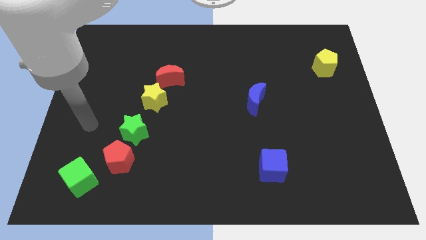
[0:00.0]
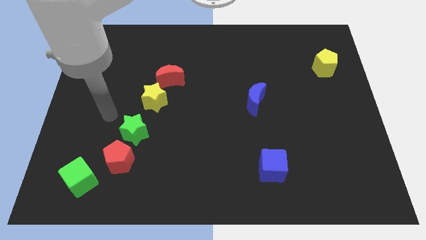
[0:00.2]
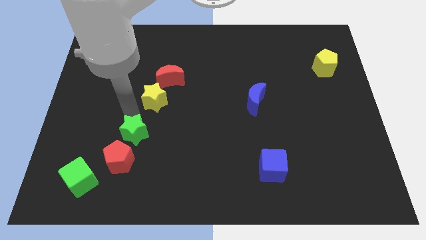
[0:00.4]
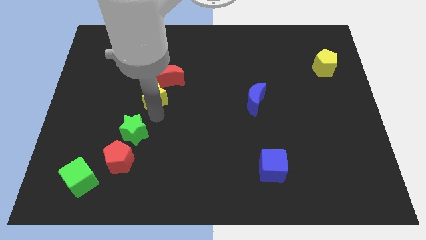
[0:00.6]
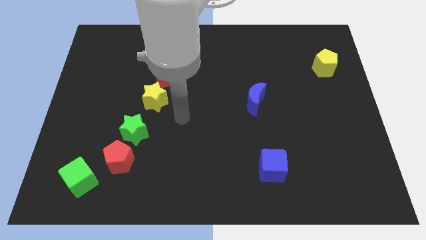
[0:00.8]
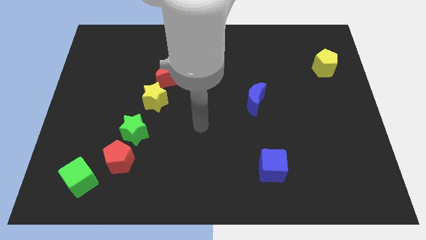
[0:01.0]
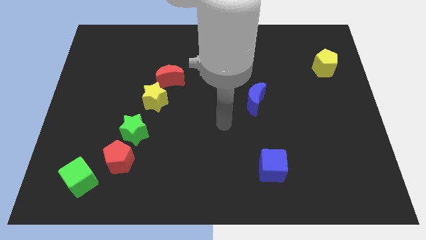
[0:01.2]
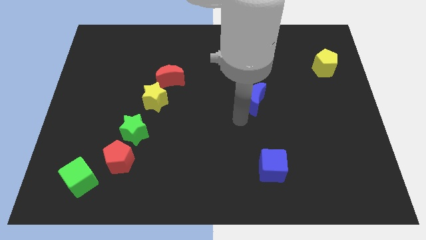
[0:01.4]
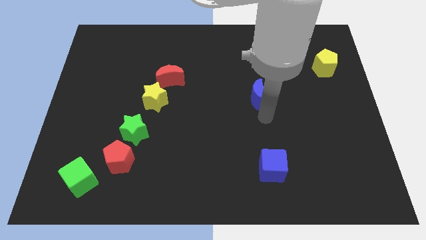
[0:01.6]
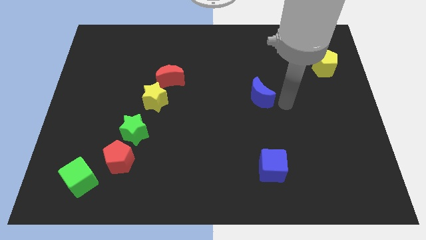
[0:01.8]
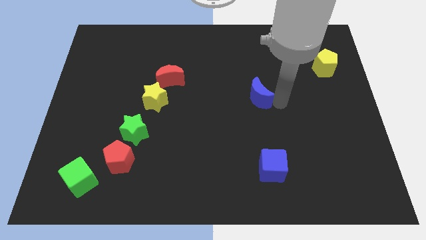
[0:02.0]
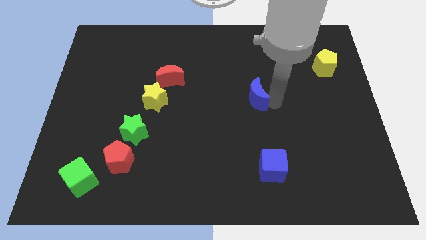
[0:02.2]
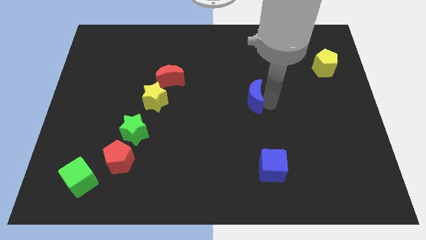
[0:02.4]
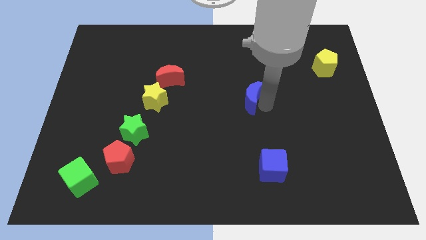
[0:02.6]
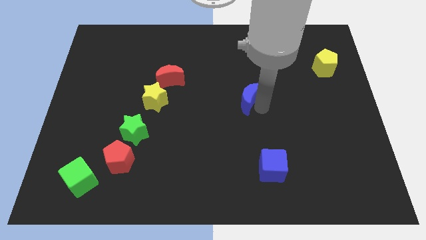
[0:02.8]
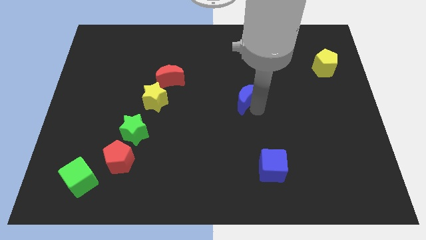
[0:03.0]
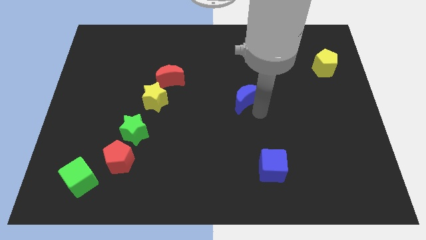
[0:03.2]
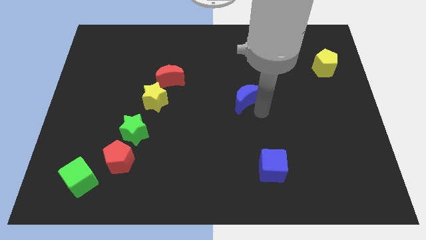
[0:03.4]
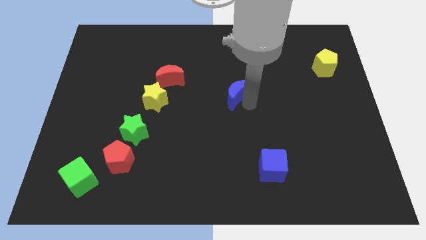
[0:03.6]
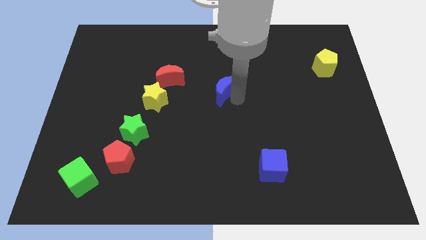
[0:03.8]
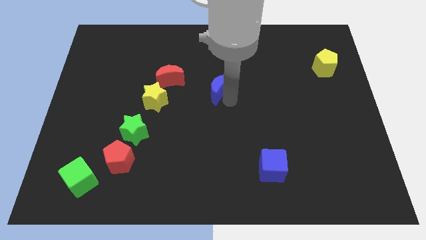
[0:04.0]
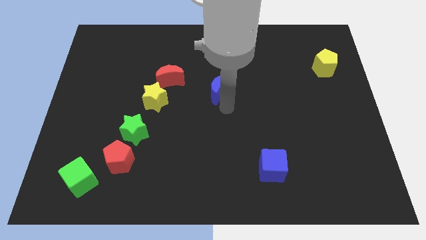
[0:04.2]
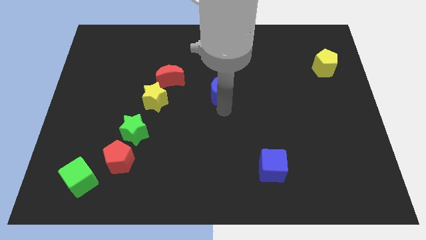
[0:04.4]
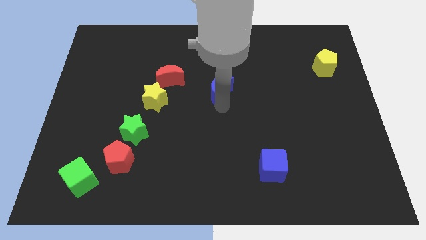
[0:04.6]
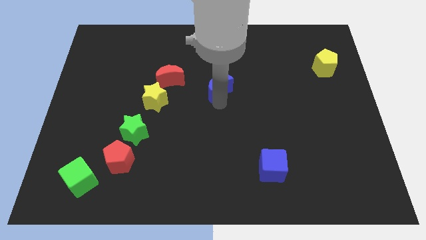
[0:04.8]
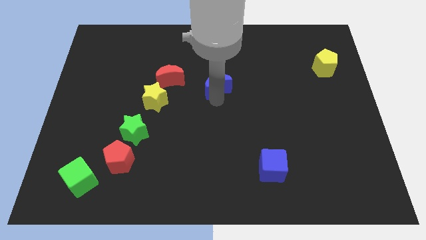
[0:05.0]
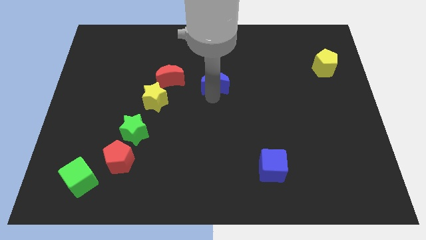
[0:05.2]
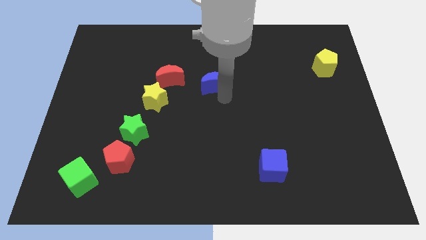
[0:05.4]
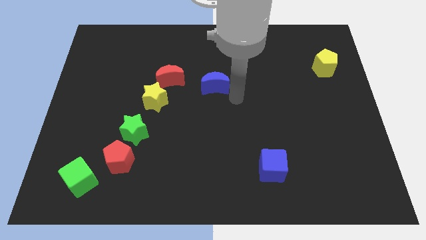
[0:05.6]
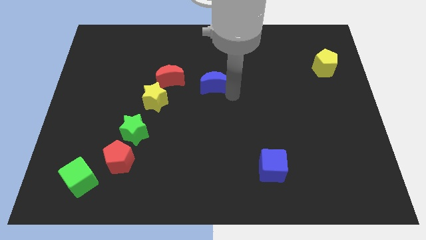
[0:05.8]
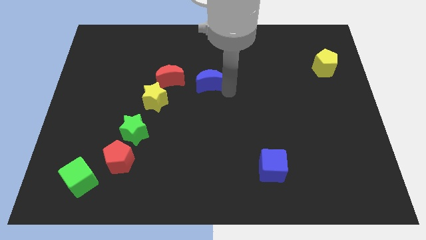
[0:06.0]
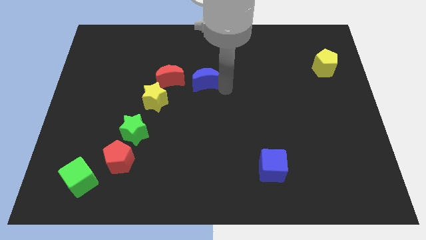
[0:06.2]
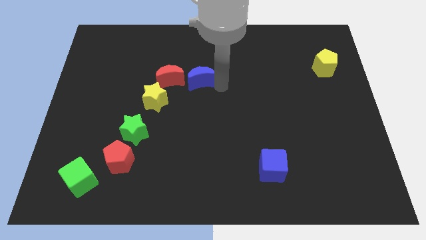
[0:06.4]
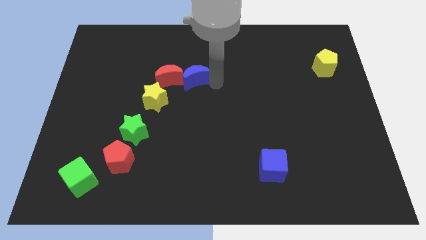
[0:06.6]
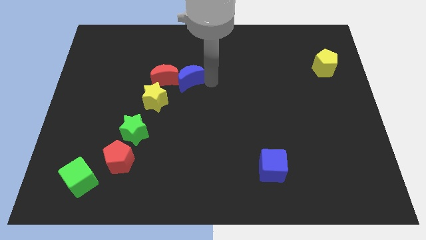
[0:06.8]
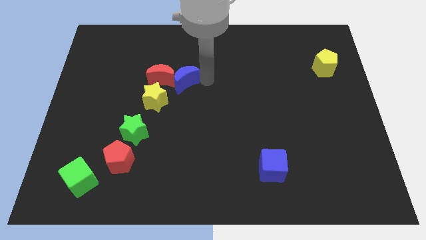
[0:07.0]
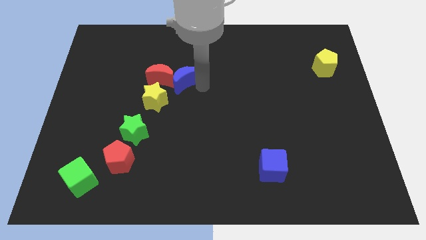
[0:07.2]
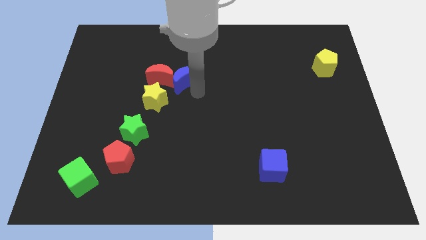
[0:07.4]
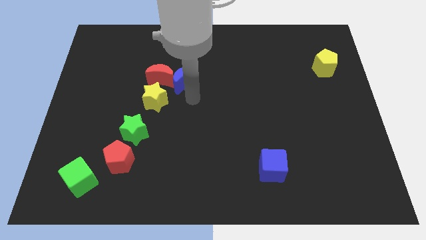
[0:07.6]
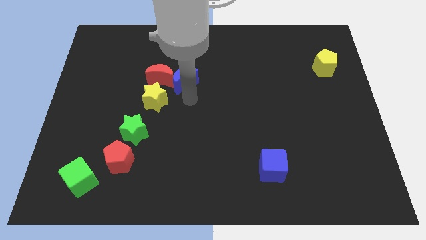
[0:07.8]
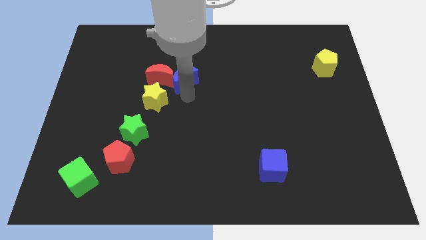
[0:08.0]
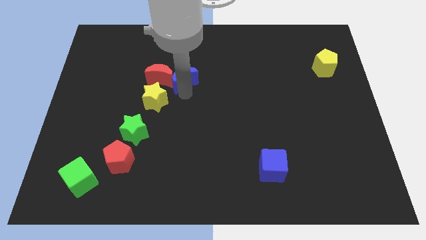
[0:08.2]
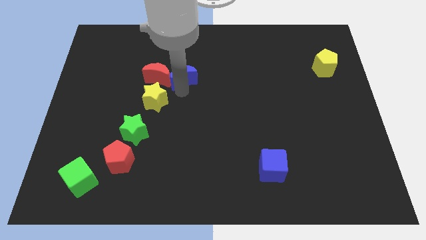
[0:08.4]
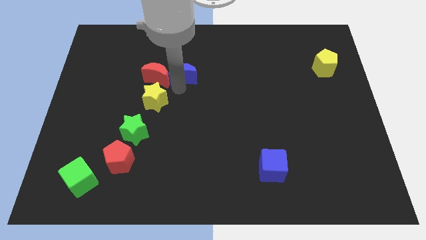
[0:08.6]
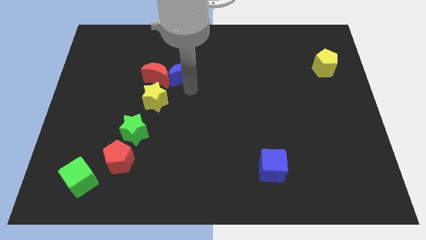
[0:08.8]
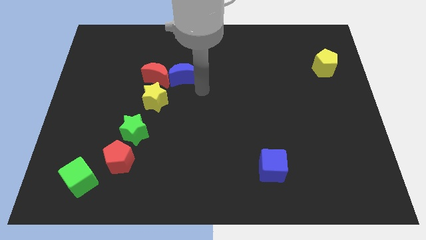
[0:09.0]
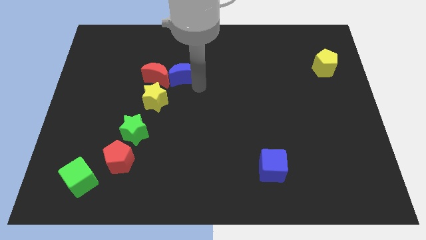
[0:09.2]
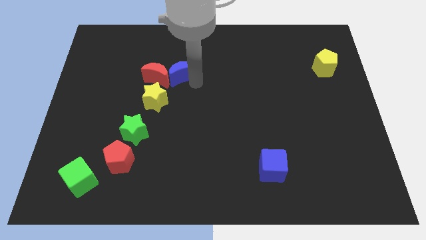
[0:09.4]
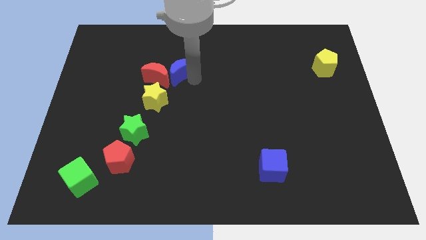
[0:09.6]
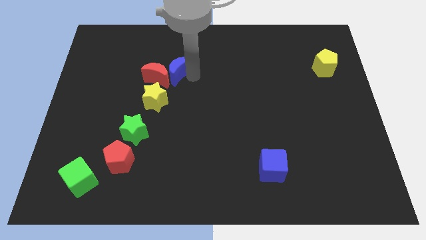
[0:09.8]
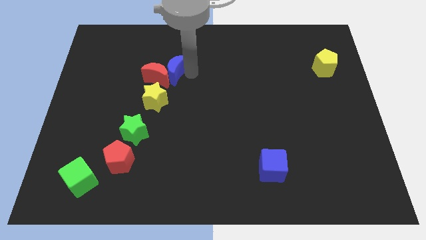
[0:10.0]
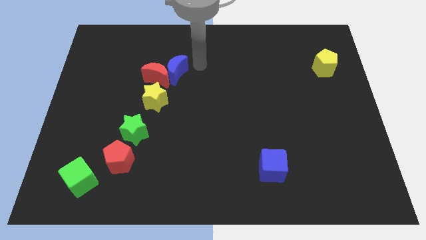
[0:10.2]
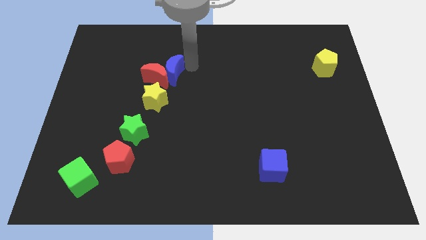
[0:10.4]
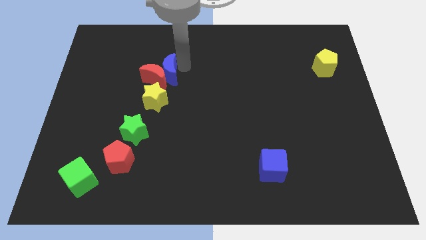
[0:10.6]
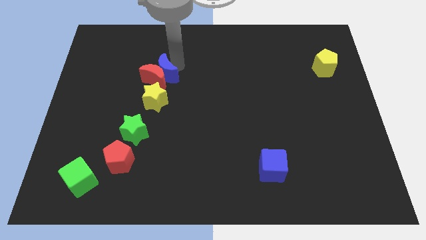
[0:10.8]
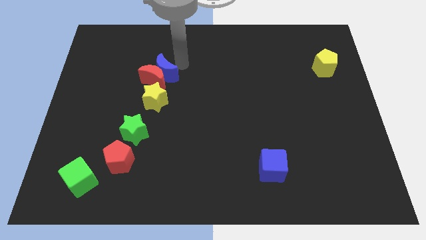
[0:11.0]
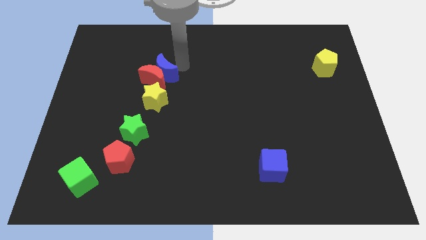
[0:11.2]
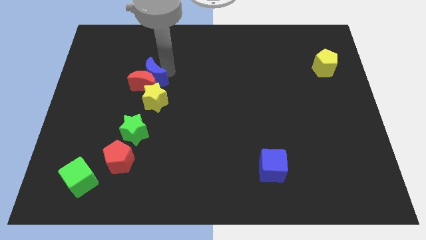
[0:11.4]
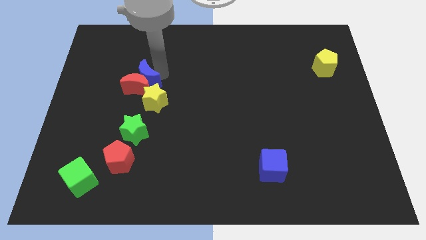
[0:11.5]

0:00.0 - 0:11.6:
move the blue moon to the top left side of the yellow star

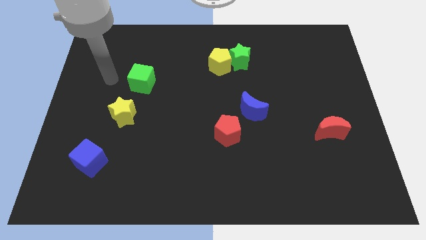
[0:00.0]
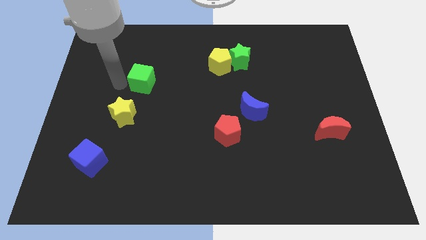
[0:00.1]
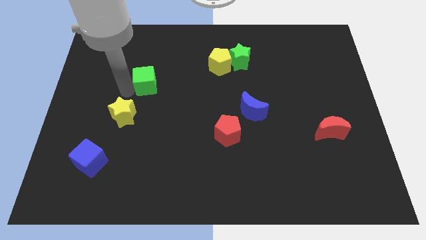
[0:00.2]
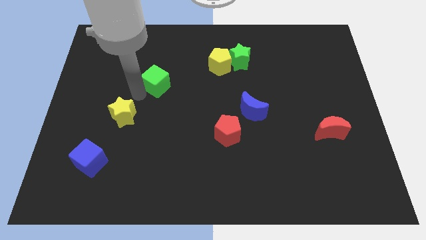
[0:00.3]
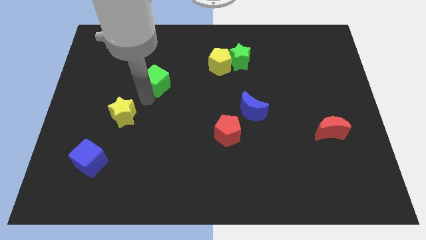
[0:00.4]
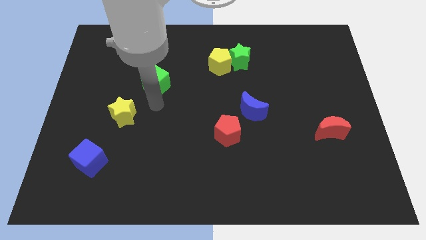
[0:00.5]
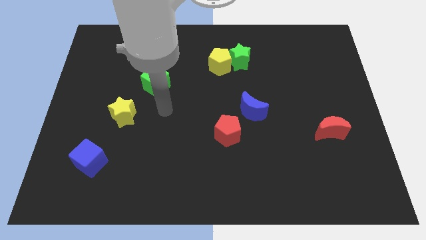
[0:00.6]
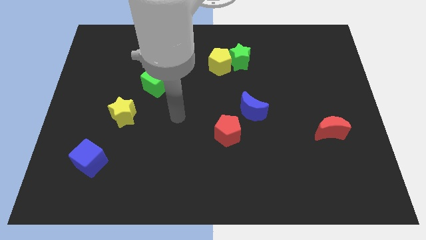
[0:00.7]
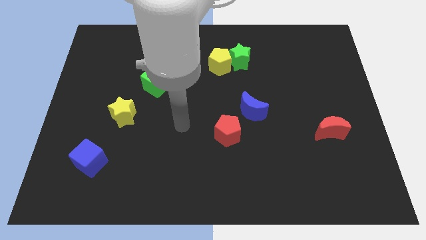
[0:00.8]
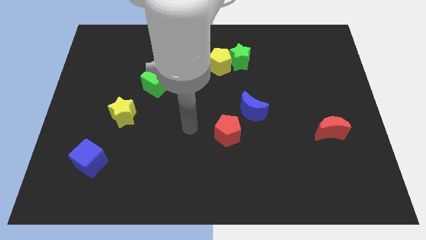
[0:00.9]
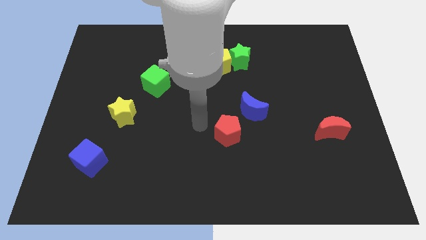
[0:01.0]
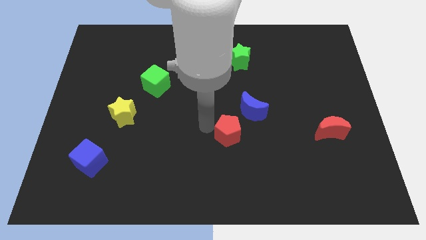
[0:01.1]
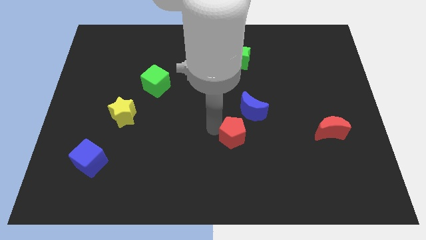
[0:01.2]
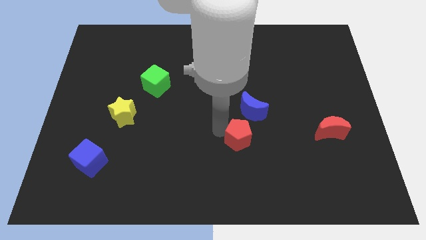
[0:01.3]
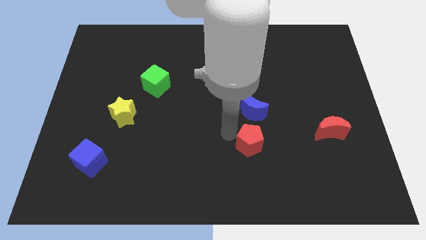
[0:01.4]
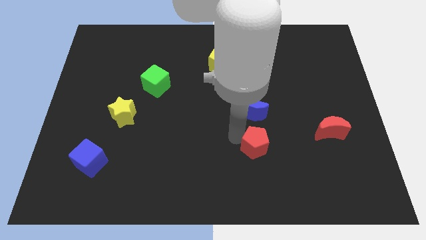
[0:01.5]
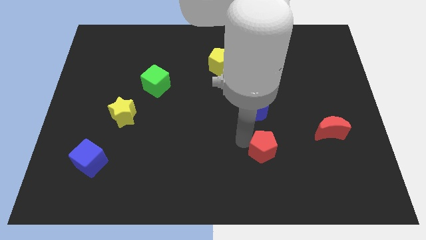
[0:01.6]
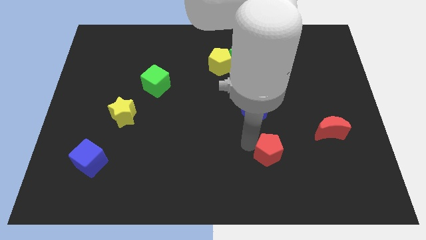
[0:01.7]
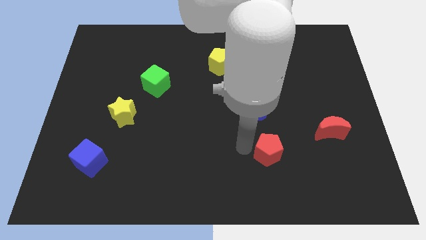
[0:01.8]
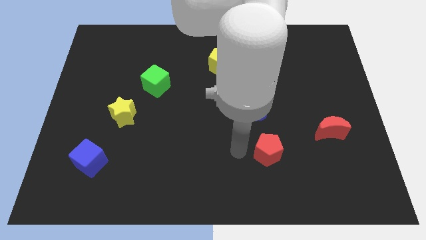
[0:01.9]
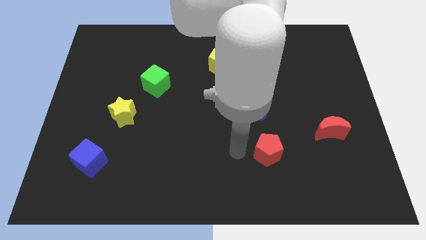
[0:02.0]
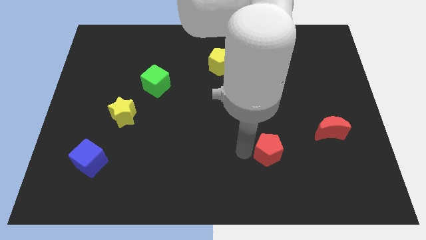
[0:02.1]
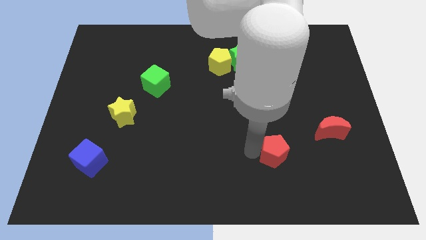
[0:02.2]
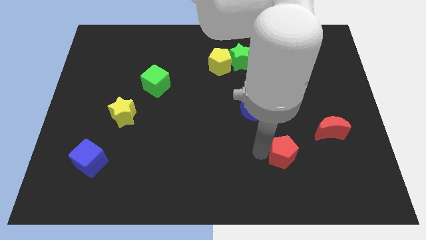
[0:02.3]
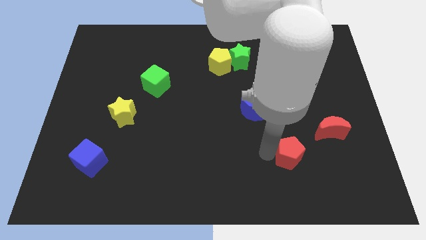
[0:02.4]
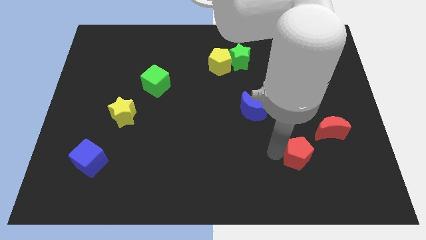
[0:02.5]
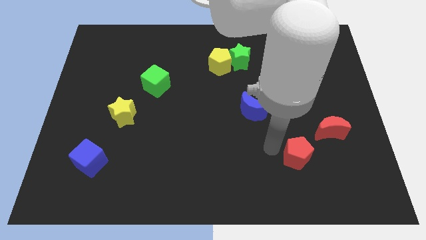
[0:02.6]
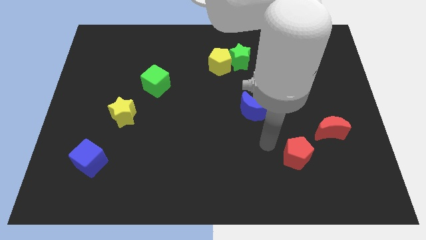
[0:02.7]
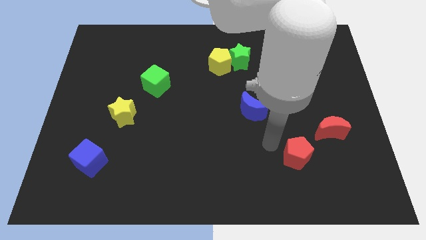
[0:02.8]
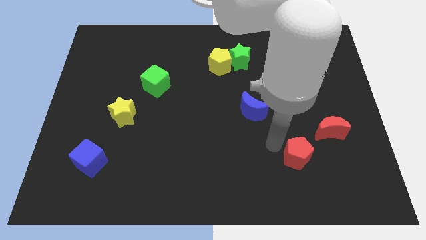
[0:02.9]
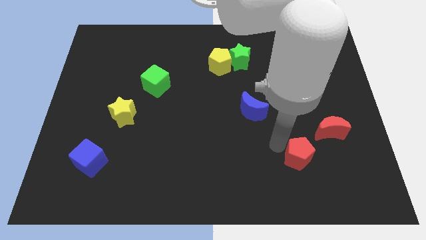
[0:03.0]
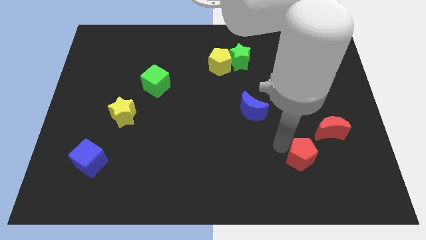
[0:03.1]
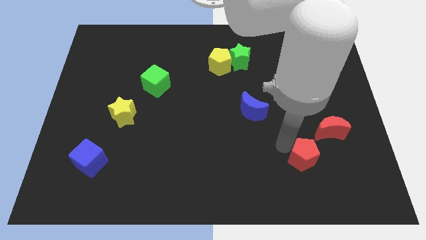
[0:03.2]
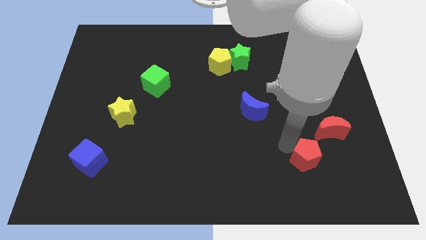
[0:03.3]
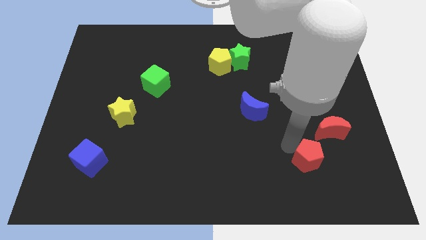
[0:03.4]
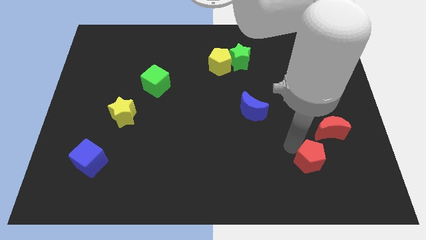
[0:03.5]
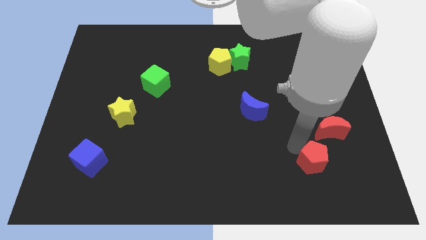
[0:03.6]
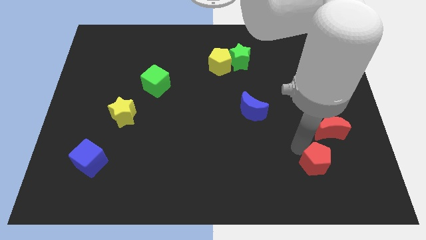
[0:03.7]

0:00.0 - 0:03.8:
push the red pentagon below the red moon
